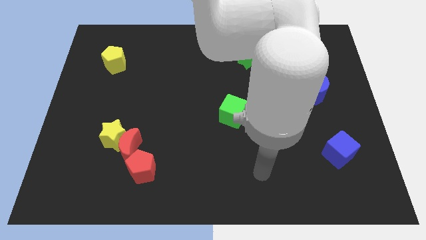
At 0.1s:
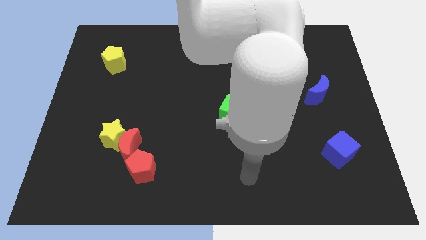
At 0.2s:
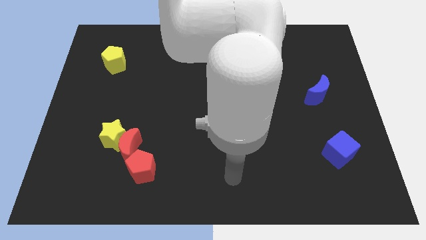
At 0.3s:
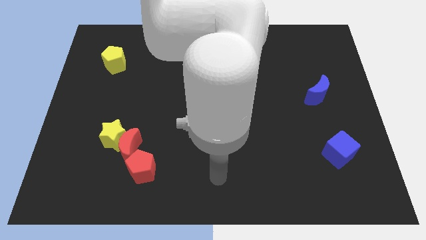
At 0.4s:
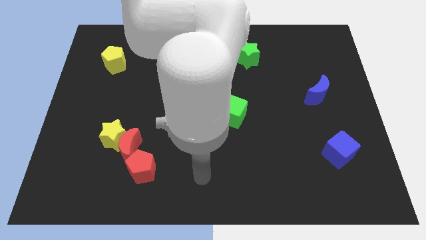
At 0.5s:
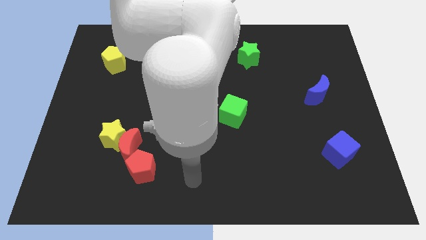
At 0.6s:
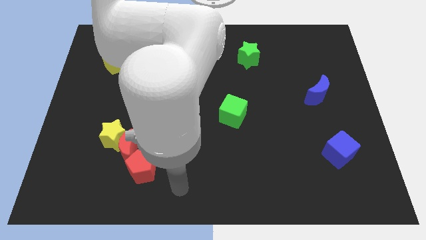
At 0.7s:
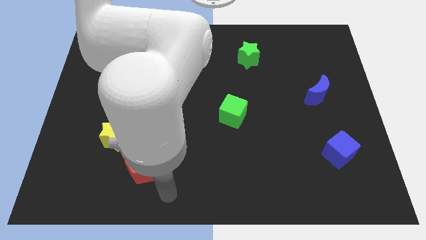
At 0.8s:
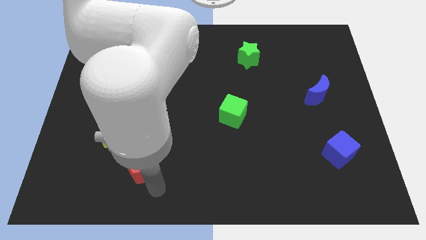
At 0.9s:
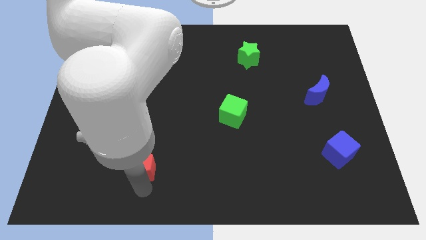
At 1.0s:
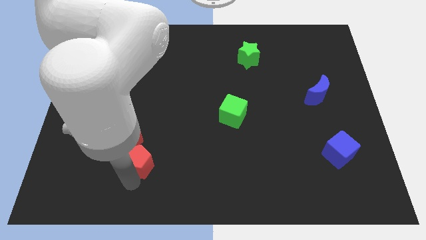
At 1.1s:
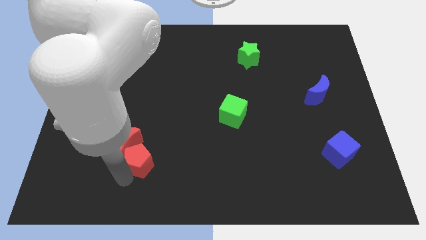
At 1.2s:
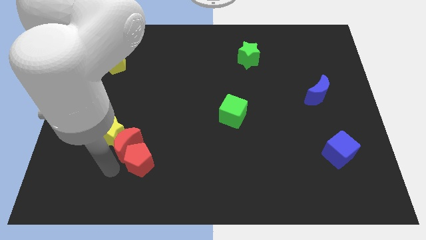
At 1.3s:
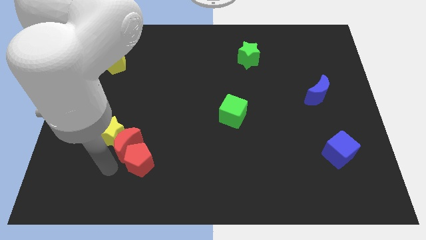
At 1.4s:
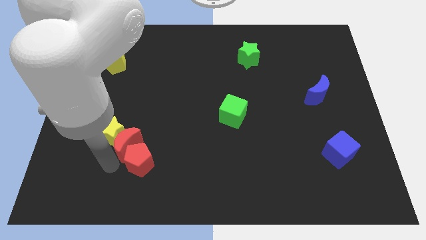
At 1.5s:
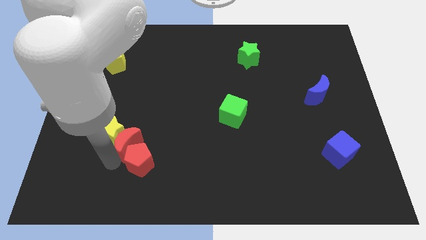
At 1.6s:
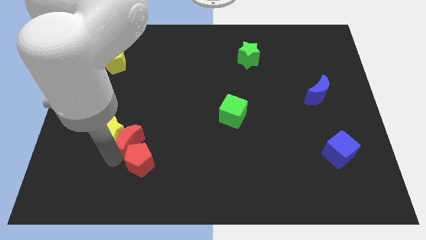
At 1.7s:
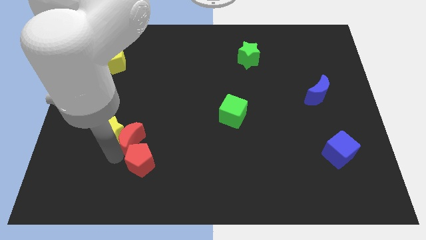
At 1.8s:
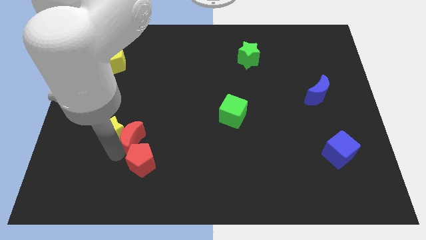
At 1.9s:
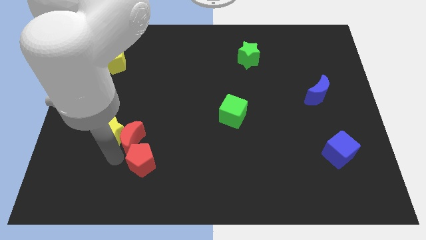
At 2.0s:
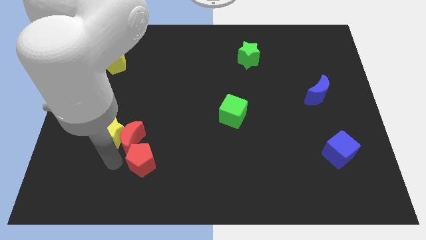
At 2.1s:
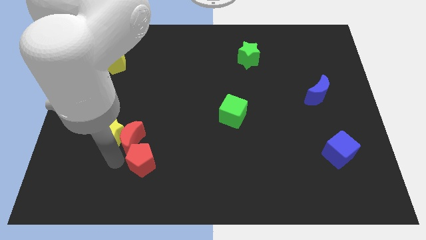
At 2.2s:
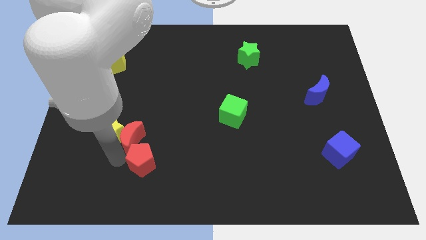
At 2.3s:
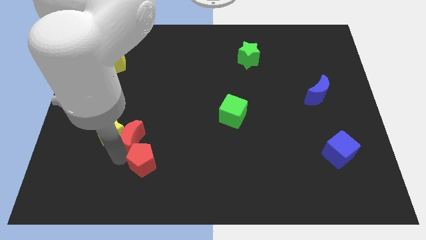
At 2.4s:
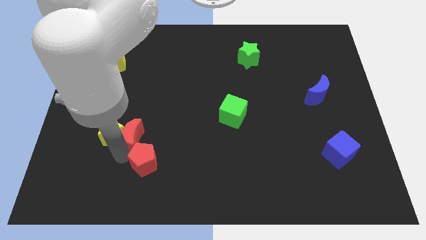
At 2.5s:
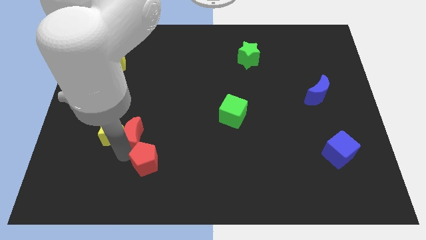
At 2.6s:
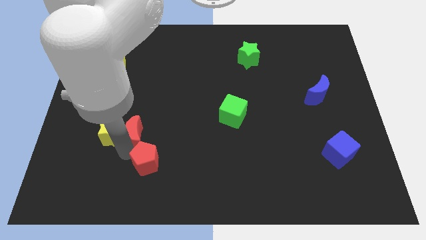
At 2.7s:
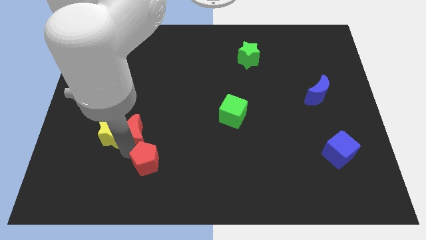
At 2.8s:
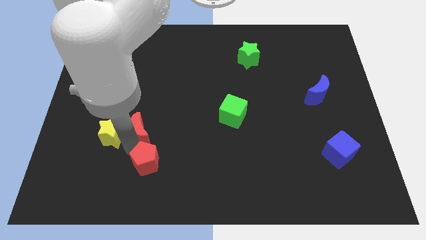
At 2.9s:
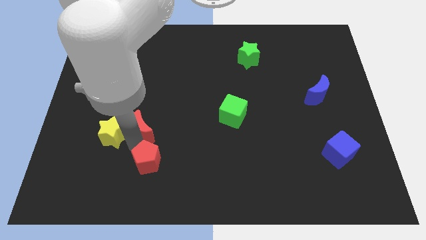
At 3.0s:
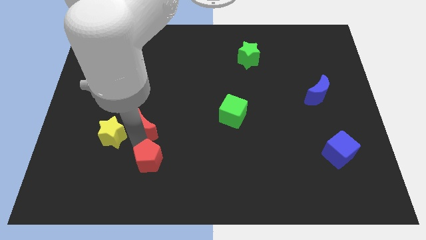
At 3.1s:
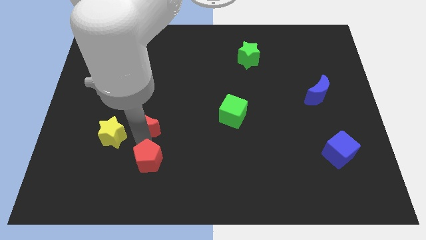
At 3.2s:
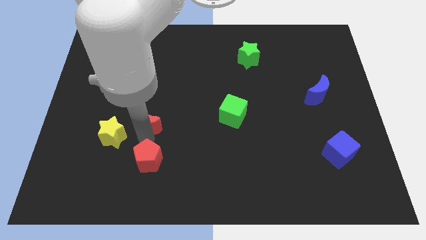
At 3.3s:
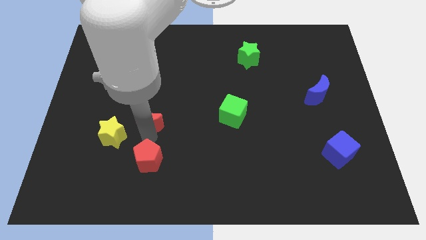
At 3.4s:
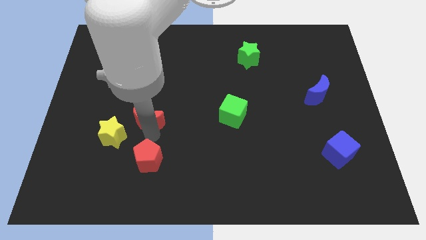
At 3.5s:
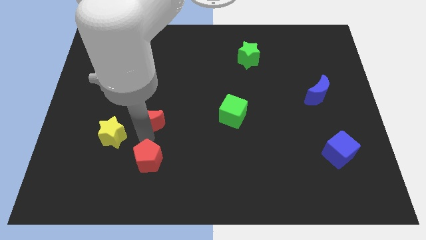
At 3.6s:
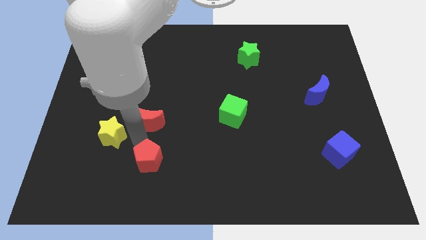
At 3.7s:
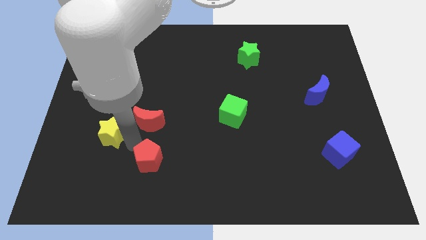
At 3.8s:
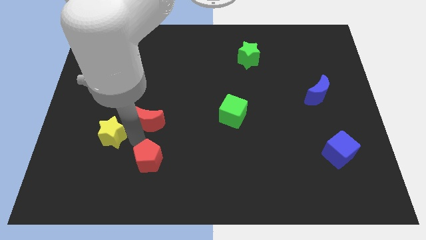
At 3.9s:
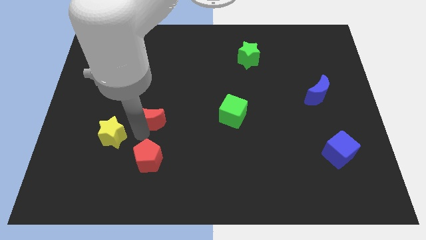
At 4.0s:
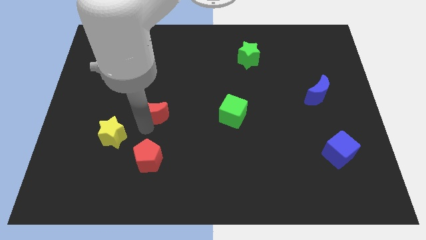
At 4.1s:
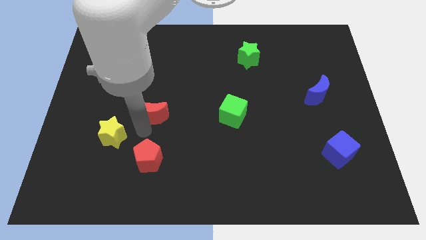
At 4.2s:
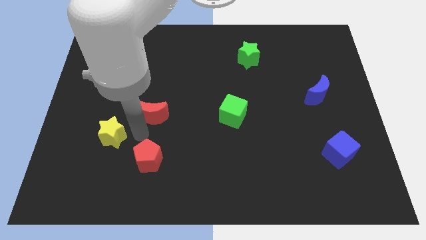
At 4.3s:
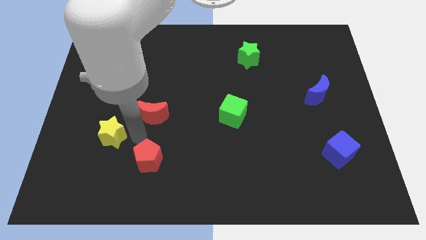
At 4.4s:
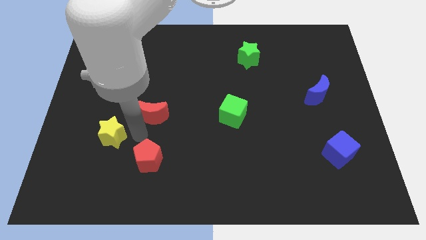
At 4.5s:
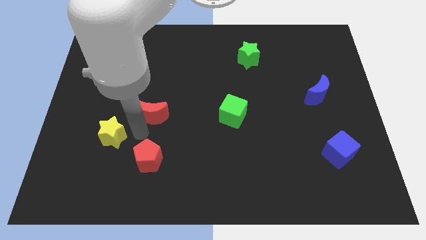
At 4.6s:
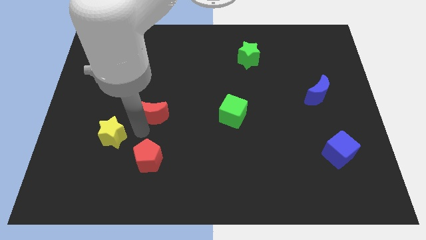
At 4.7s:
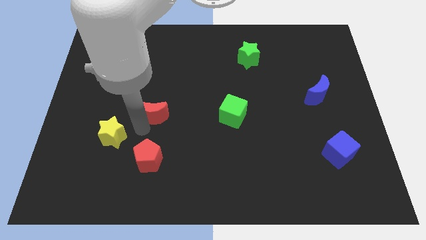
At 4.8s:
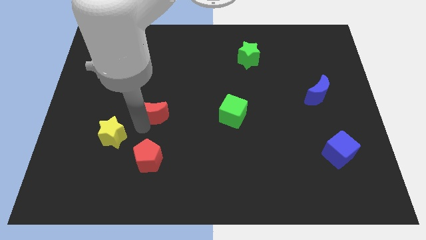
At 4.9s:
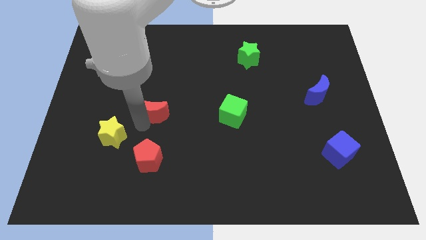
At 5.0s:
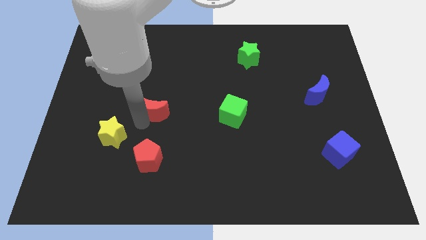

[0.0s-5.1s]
move the red moon away from the yellow star and red pentagon

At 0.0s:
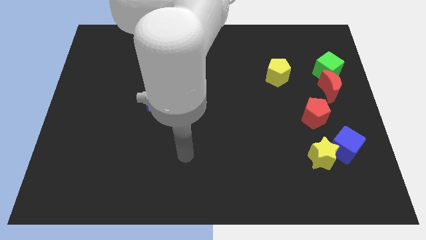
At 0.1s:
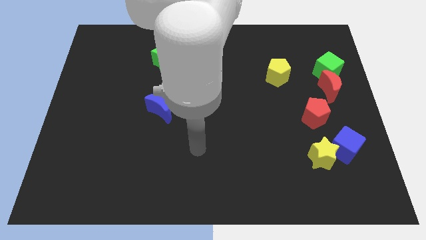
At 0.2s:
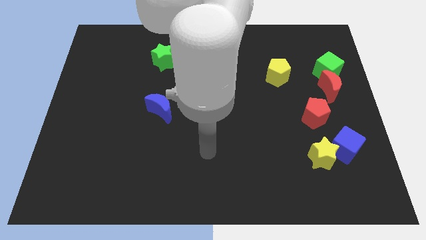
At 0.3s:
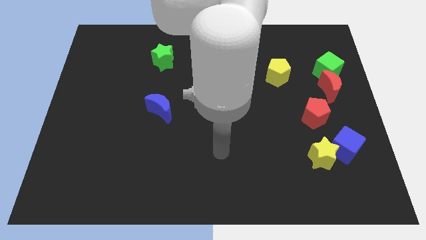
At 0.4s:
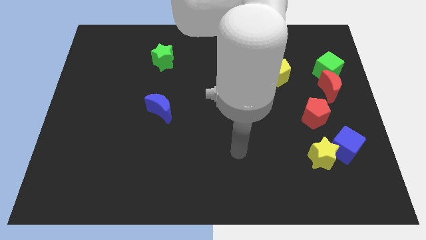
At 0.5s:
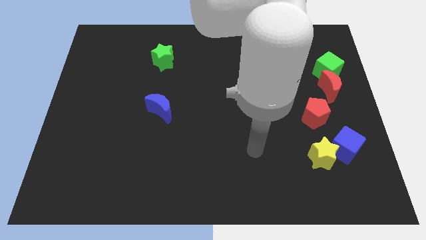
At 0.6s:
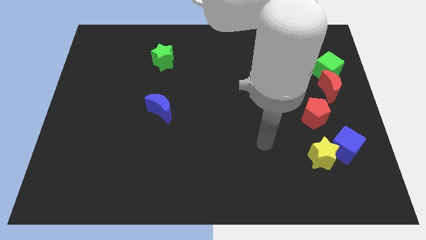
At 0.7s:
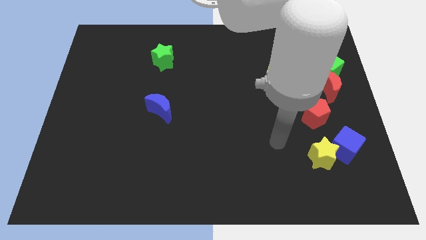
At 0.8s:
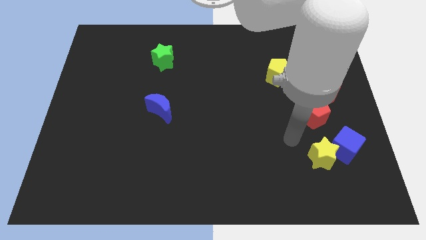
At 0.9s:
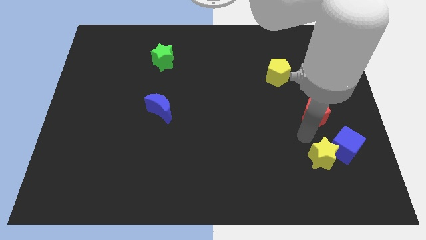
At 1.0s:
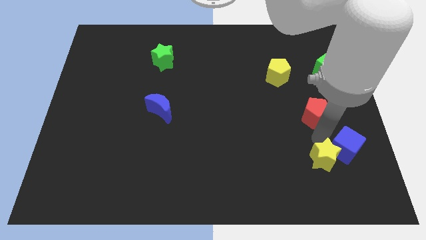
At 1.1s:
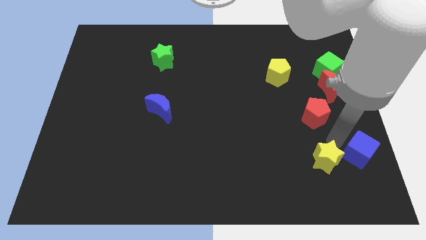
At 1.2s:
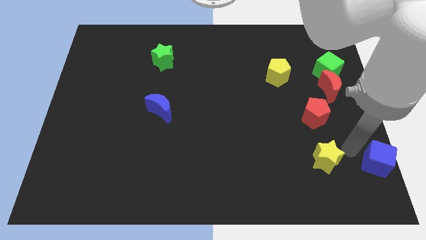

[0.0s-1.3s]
move the yellow star away from the blue cube

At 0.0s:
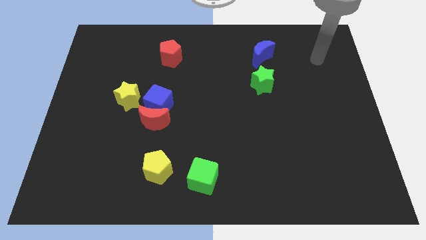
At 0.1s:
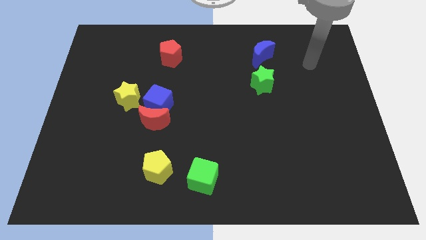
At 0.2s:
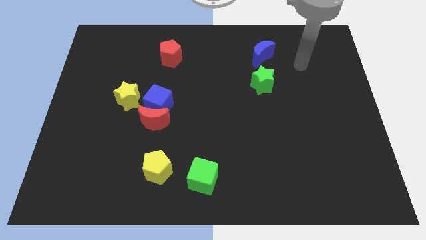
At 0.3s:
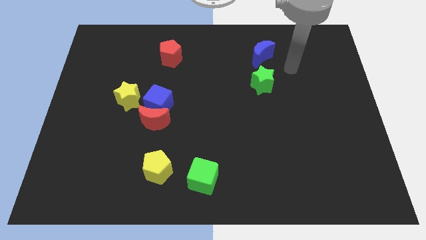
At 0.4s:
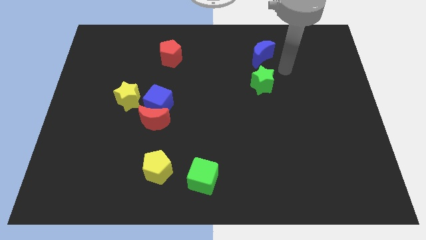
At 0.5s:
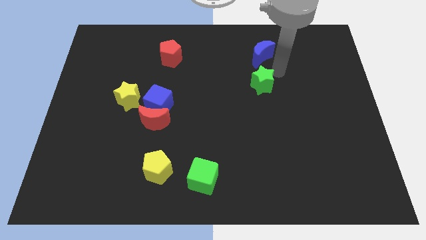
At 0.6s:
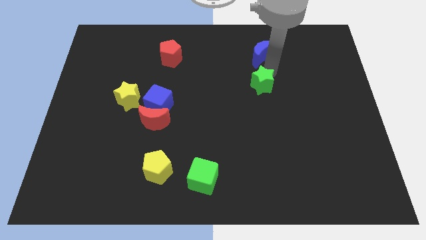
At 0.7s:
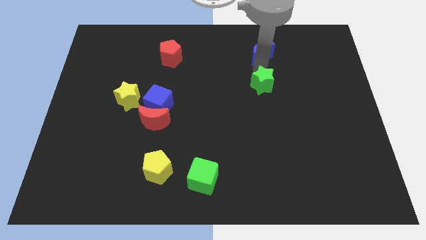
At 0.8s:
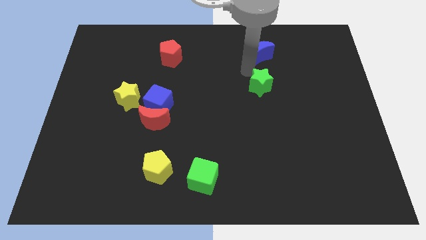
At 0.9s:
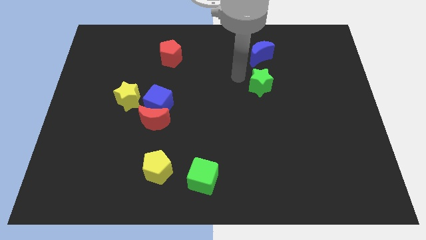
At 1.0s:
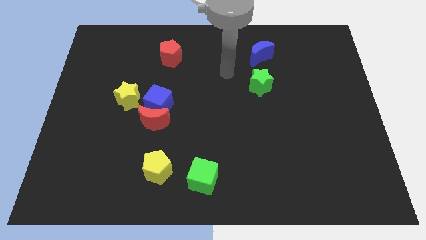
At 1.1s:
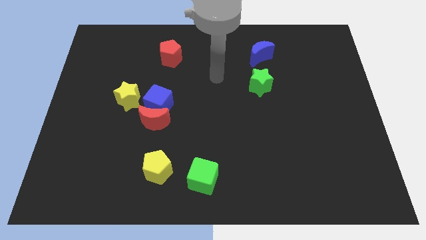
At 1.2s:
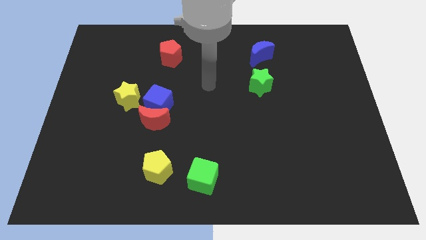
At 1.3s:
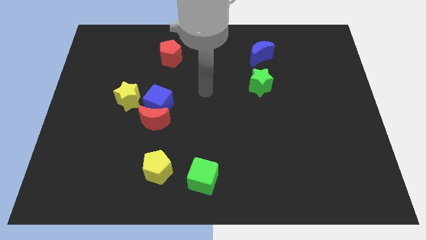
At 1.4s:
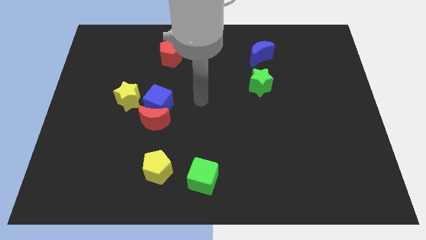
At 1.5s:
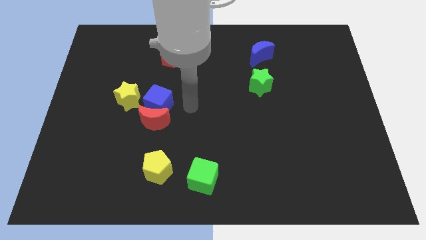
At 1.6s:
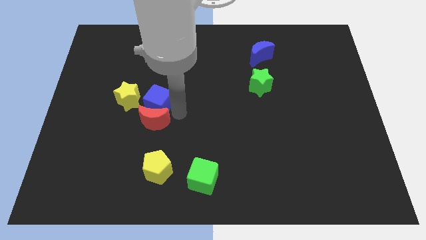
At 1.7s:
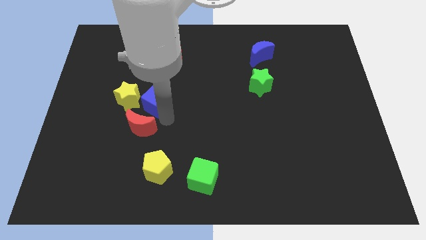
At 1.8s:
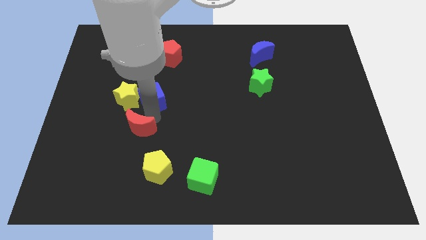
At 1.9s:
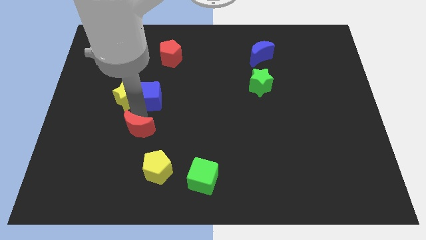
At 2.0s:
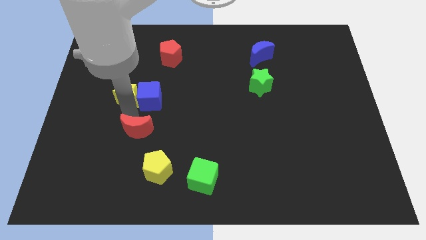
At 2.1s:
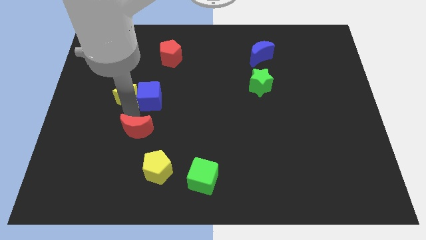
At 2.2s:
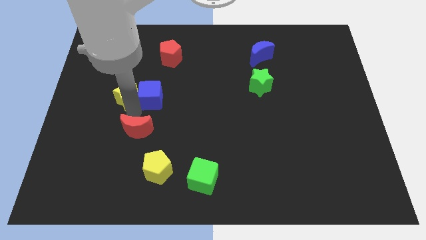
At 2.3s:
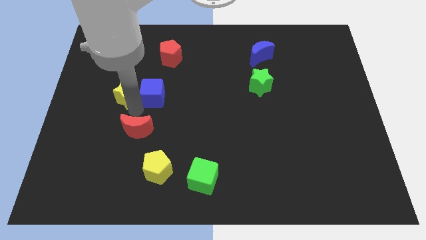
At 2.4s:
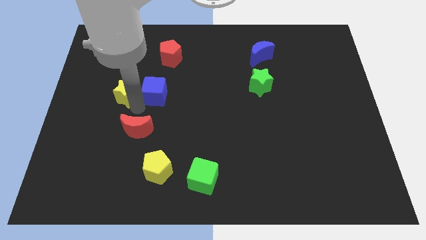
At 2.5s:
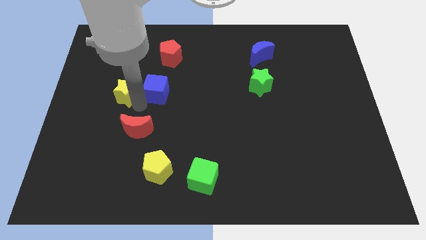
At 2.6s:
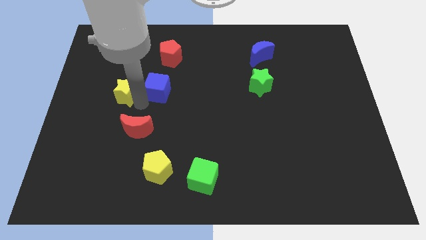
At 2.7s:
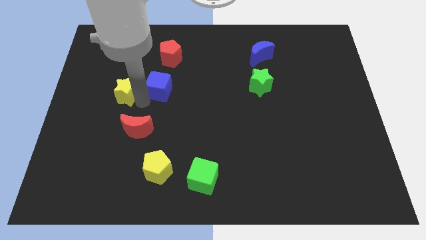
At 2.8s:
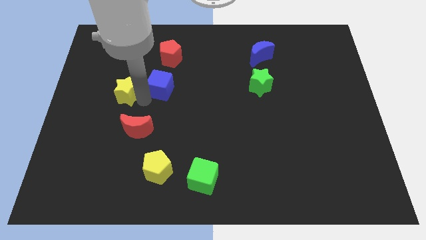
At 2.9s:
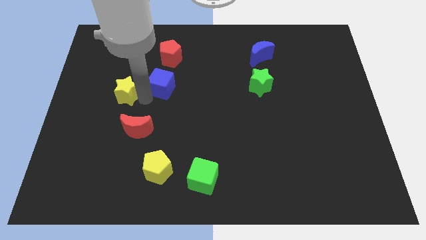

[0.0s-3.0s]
separate the blue cube from the red moon and yellow star
